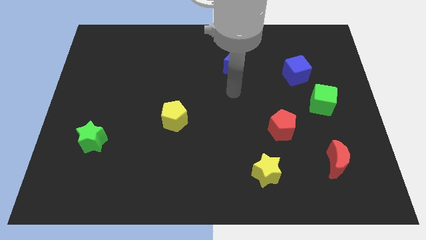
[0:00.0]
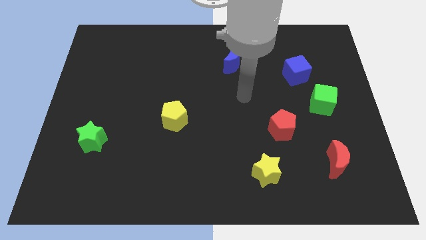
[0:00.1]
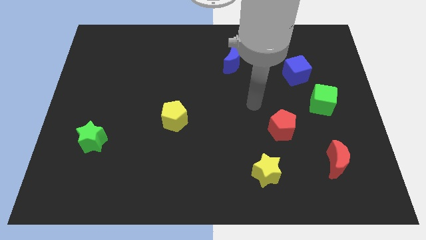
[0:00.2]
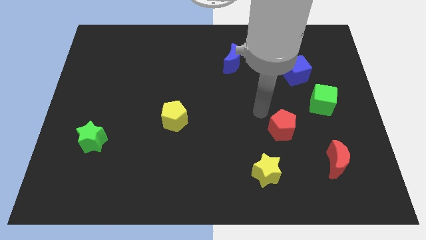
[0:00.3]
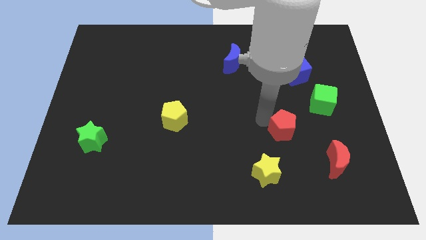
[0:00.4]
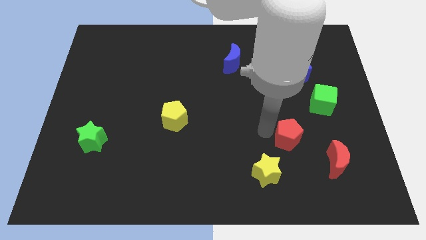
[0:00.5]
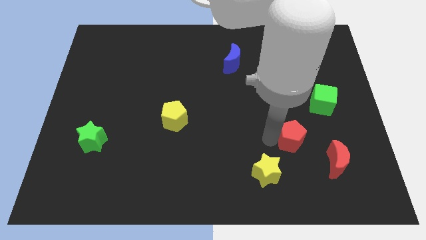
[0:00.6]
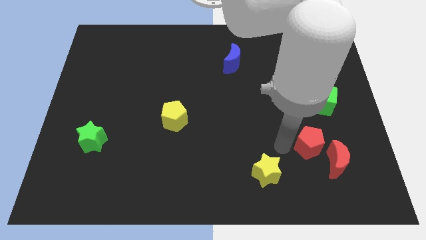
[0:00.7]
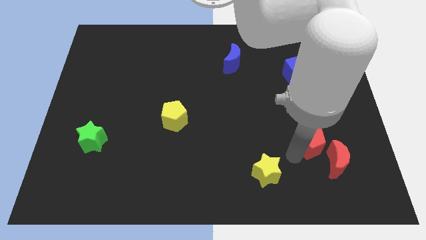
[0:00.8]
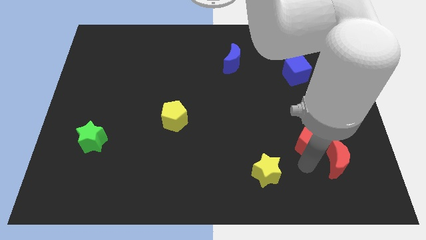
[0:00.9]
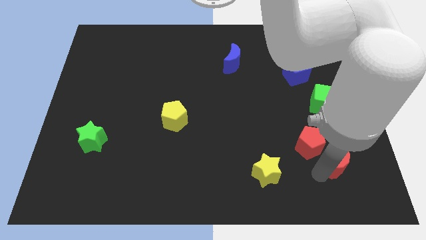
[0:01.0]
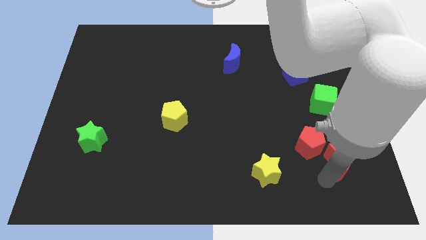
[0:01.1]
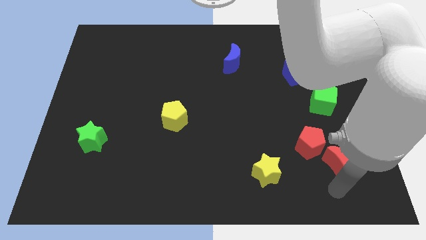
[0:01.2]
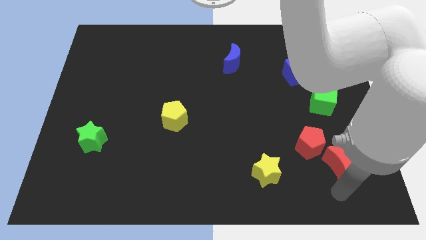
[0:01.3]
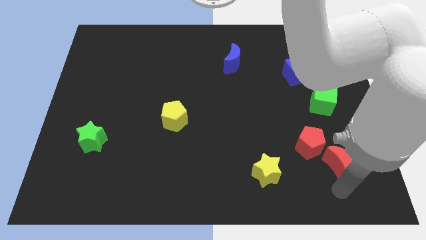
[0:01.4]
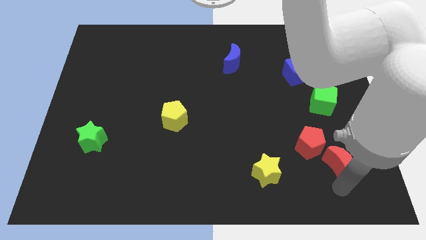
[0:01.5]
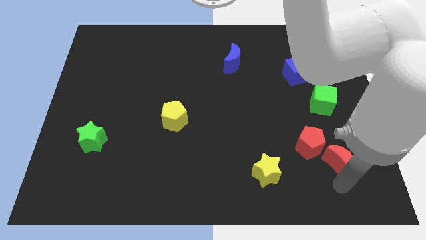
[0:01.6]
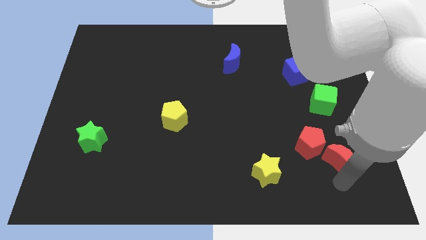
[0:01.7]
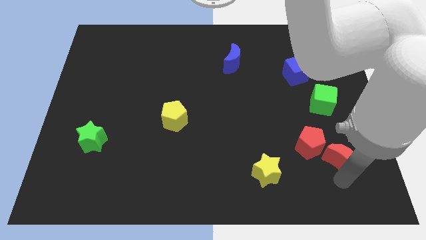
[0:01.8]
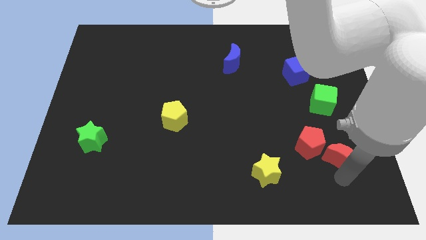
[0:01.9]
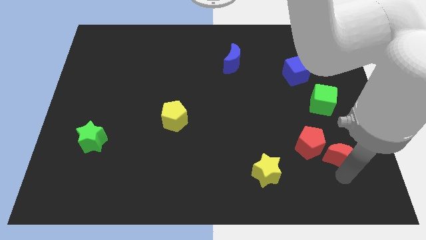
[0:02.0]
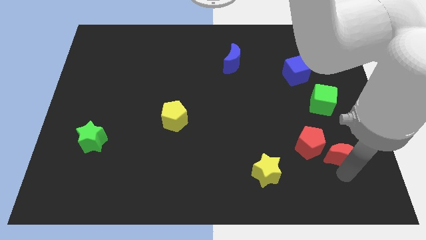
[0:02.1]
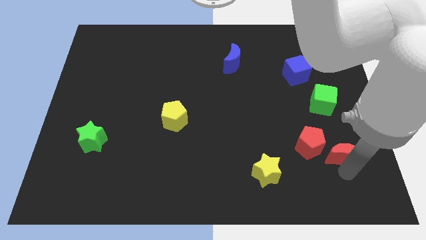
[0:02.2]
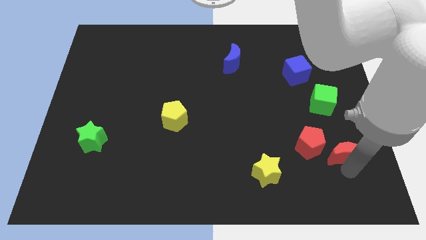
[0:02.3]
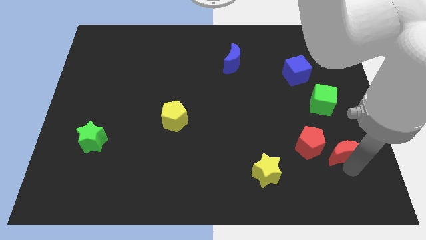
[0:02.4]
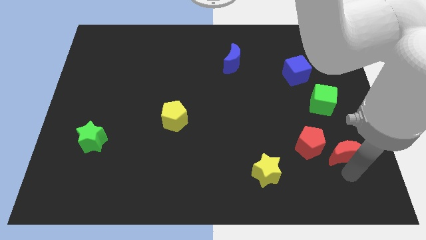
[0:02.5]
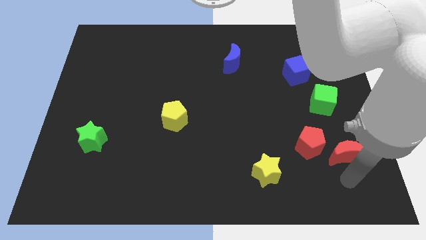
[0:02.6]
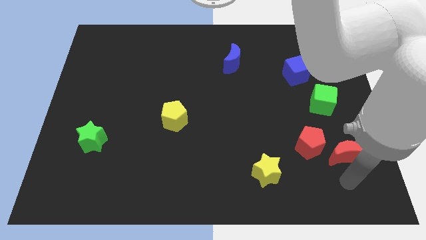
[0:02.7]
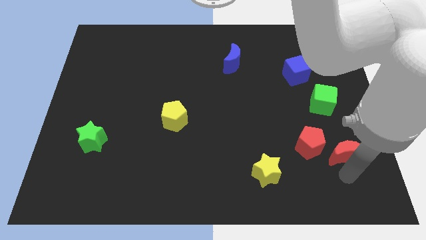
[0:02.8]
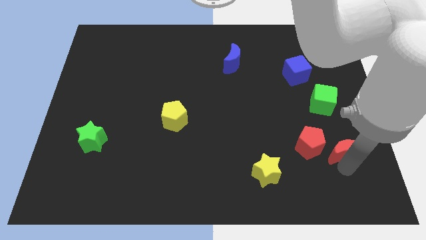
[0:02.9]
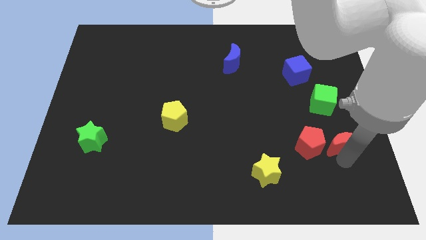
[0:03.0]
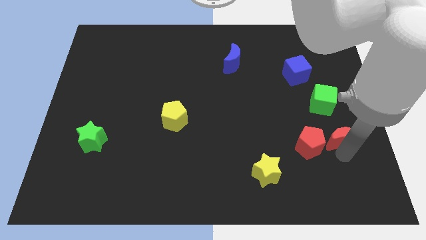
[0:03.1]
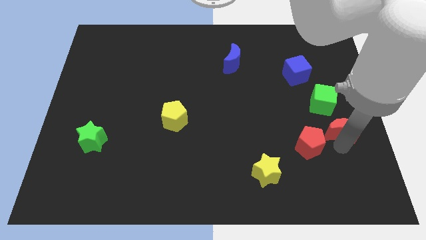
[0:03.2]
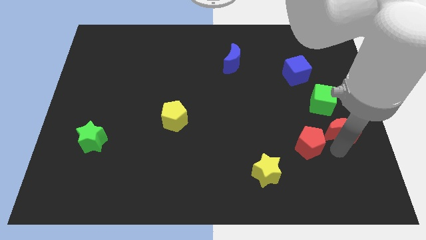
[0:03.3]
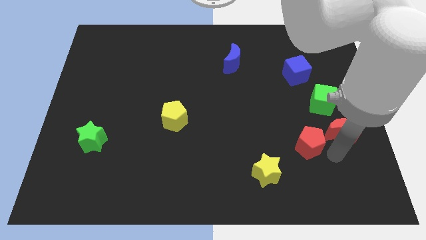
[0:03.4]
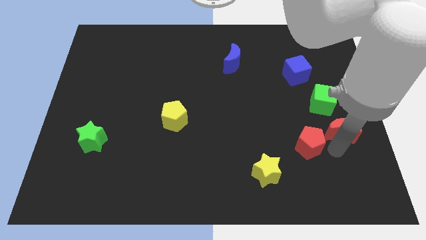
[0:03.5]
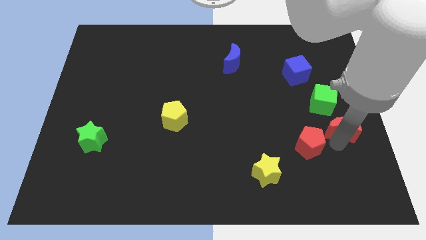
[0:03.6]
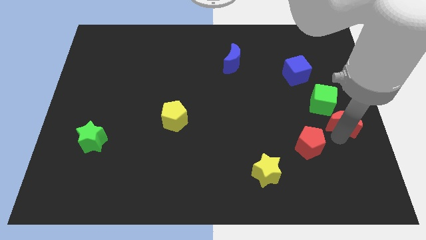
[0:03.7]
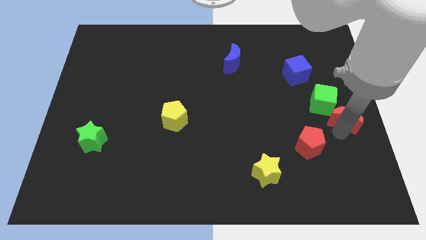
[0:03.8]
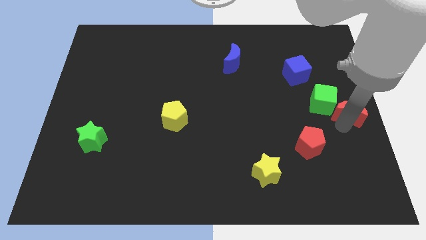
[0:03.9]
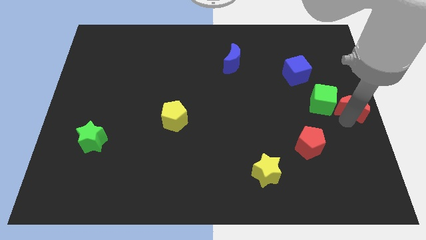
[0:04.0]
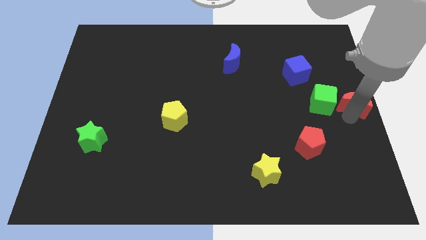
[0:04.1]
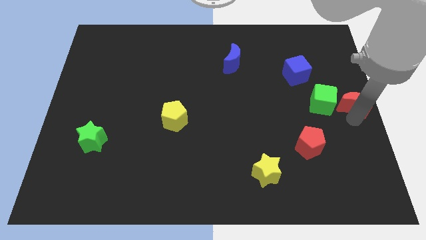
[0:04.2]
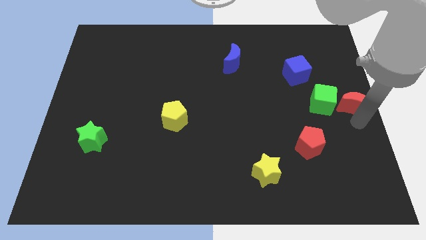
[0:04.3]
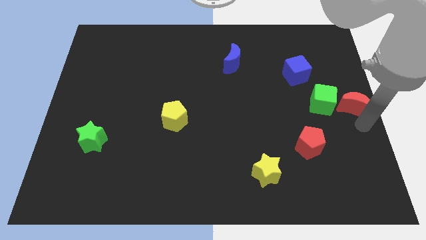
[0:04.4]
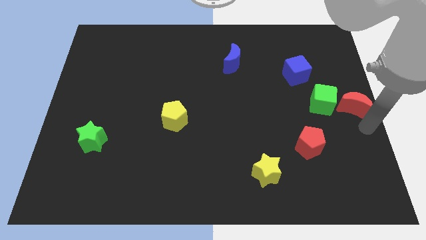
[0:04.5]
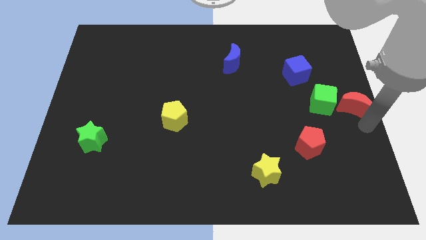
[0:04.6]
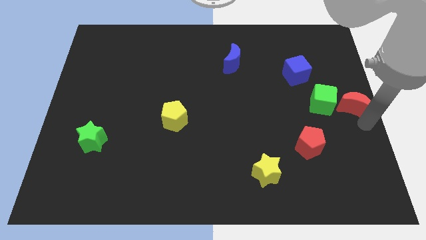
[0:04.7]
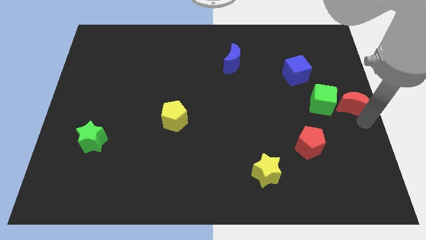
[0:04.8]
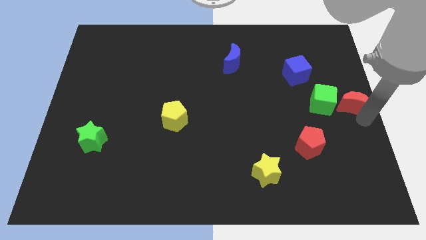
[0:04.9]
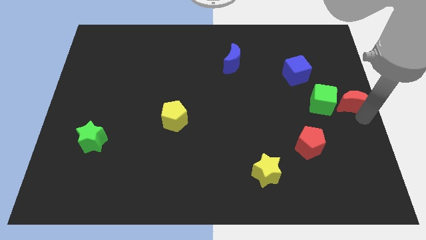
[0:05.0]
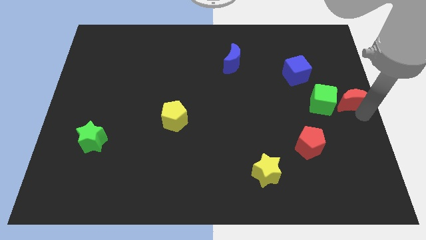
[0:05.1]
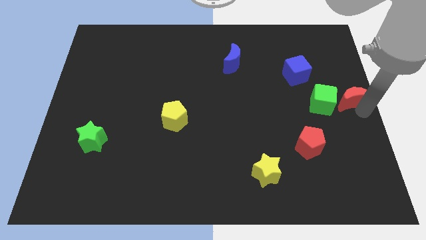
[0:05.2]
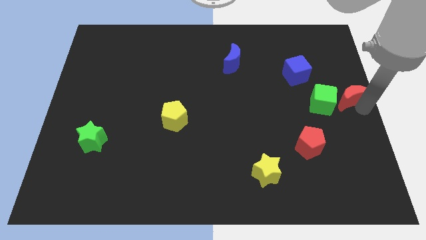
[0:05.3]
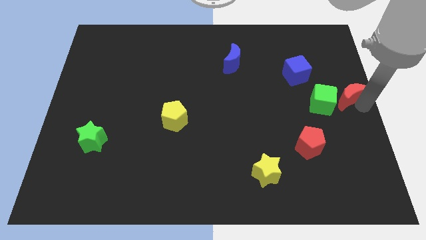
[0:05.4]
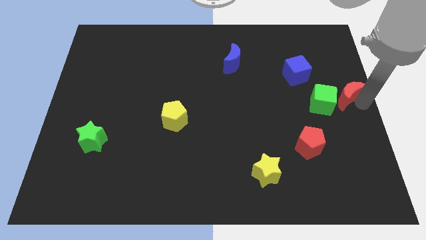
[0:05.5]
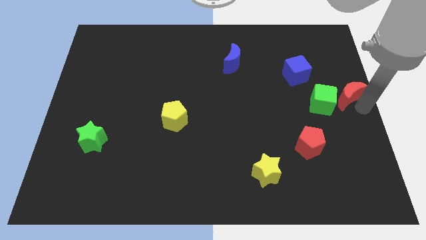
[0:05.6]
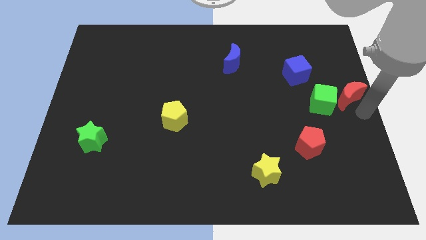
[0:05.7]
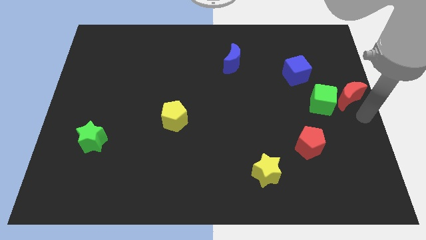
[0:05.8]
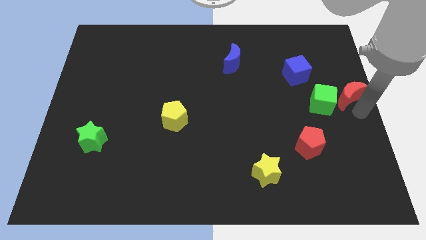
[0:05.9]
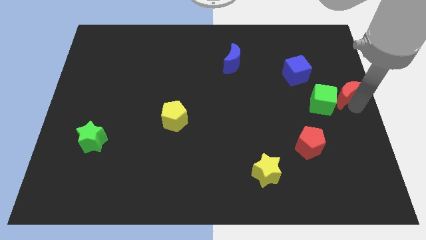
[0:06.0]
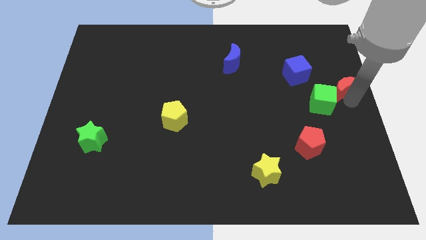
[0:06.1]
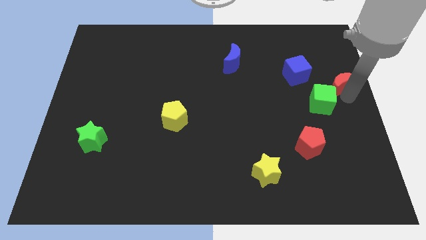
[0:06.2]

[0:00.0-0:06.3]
slide the red moon upwards

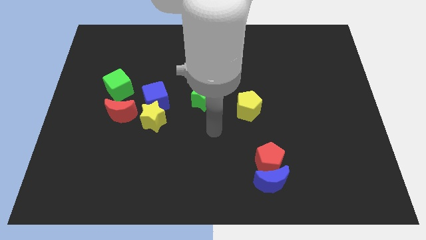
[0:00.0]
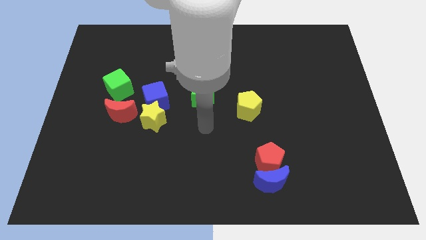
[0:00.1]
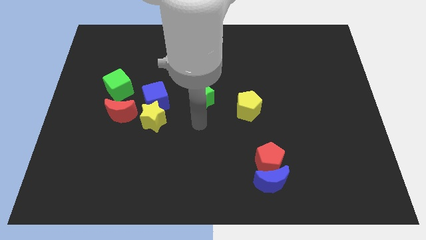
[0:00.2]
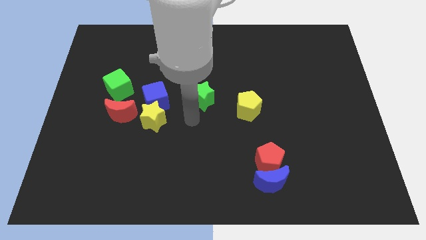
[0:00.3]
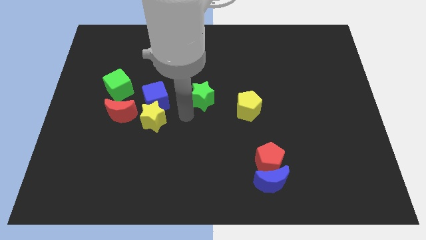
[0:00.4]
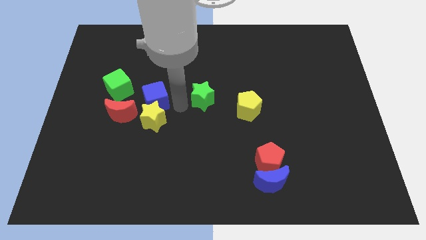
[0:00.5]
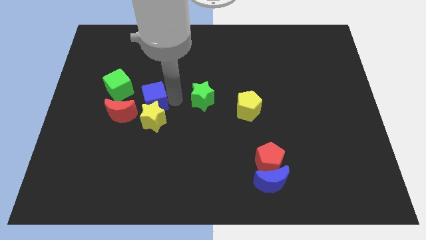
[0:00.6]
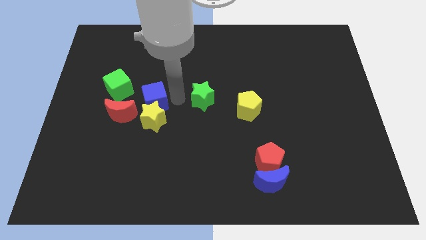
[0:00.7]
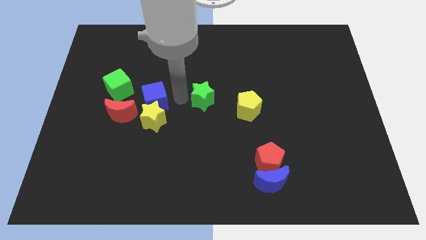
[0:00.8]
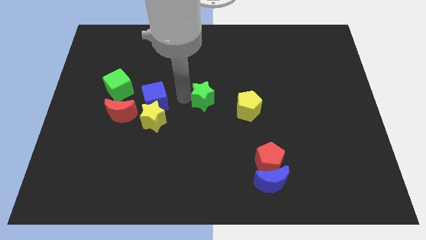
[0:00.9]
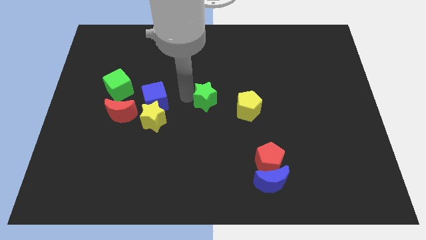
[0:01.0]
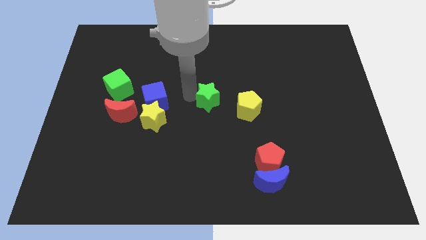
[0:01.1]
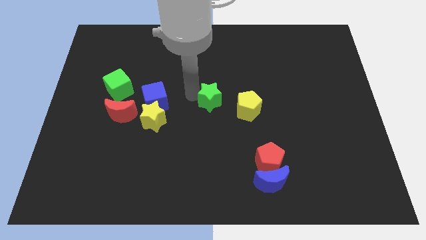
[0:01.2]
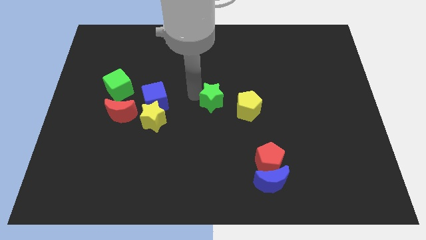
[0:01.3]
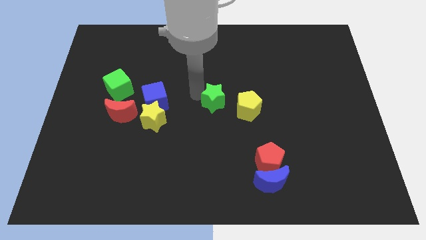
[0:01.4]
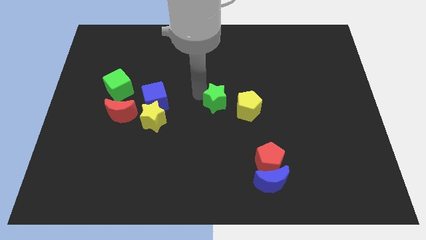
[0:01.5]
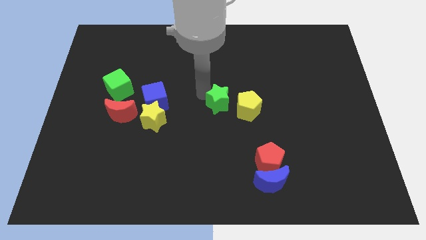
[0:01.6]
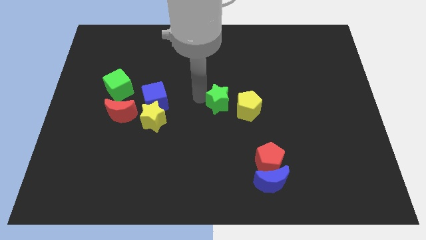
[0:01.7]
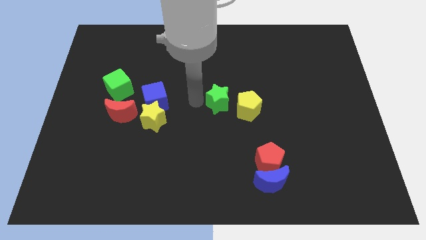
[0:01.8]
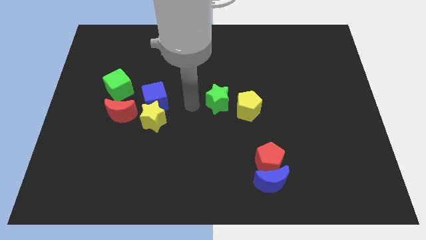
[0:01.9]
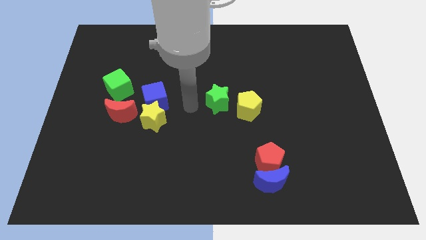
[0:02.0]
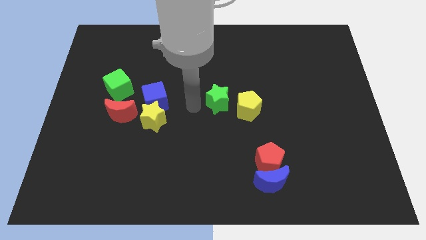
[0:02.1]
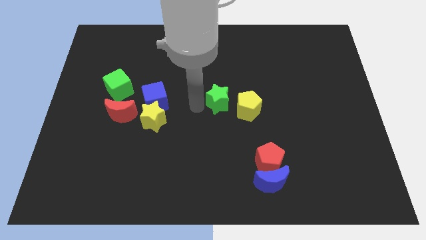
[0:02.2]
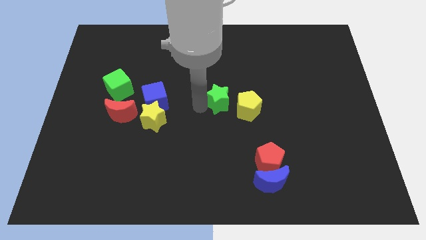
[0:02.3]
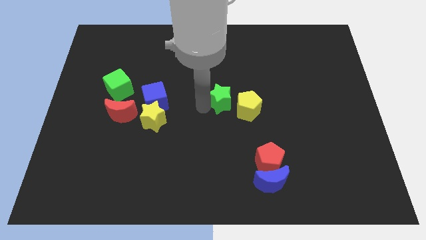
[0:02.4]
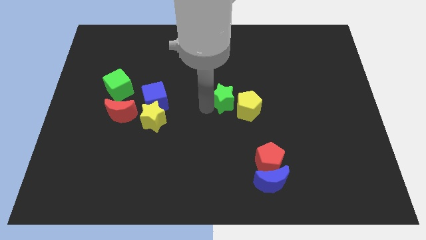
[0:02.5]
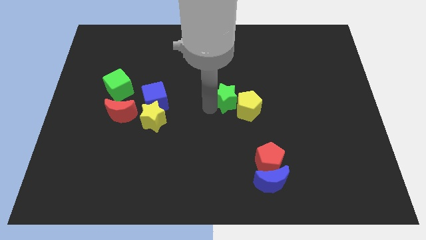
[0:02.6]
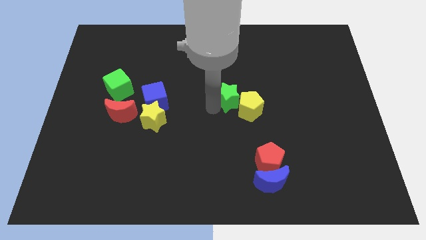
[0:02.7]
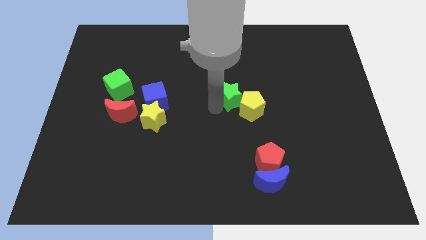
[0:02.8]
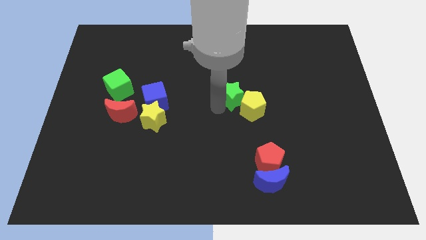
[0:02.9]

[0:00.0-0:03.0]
move the green star a little bit to the right
